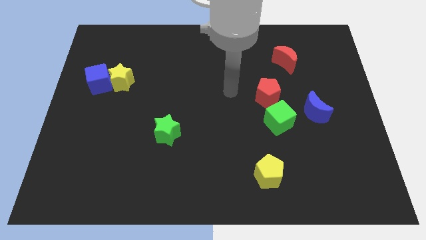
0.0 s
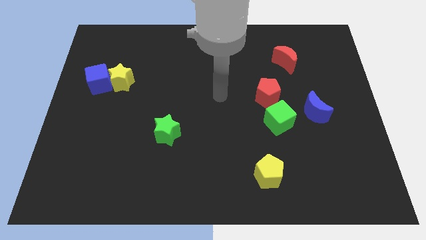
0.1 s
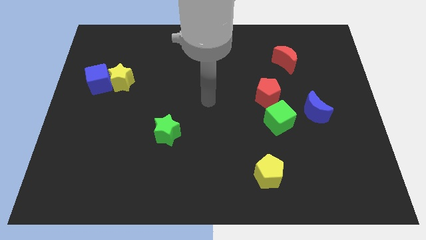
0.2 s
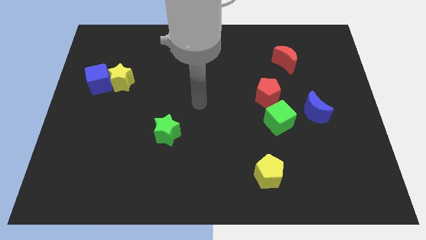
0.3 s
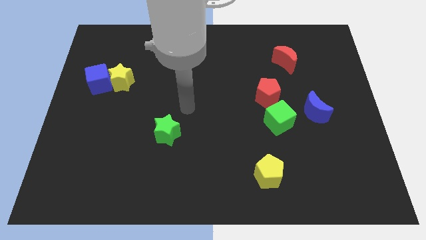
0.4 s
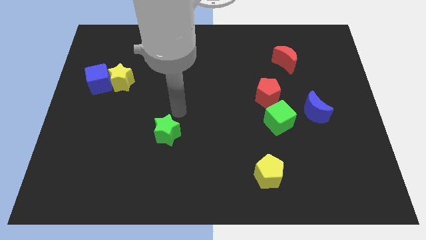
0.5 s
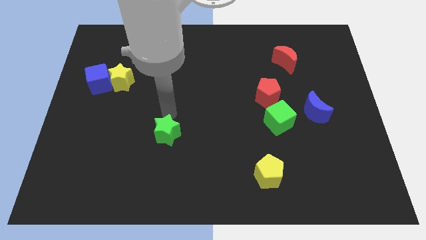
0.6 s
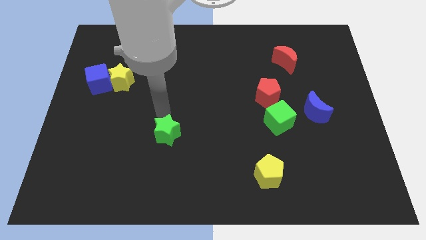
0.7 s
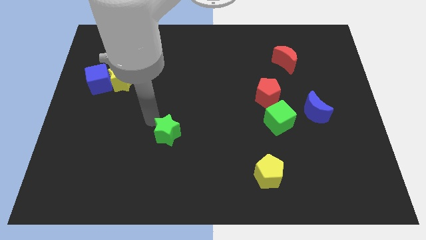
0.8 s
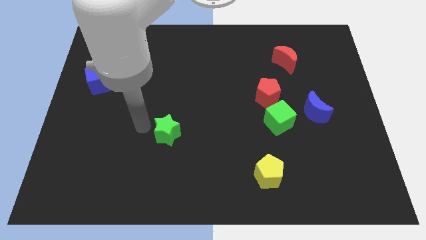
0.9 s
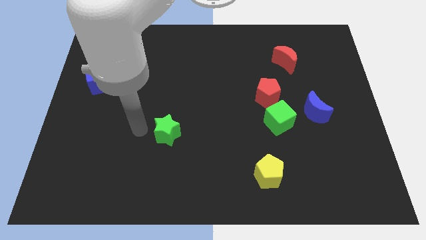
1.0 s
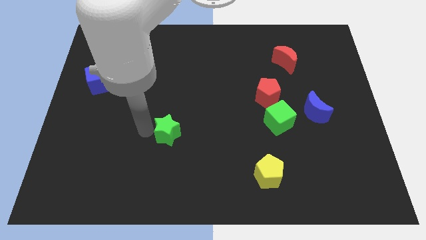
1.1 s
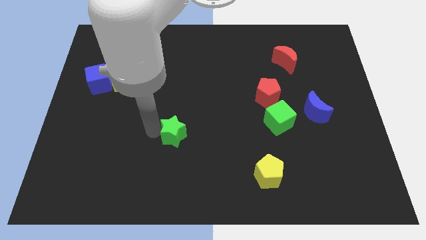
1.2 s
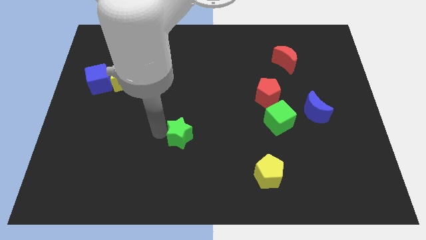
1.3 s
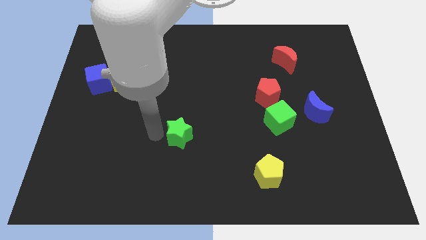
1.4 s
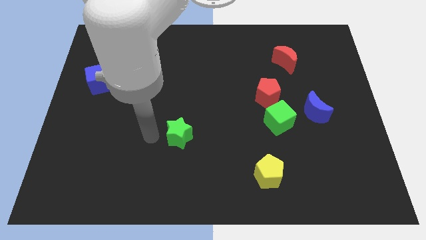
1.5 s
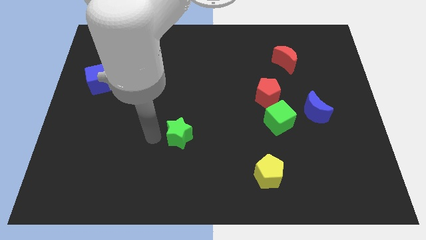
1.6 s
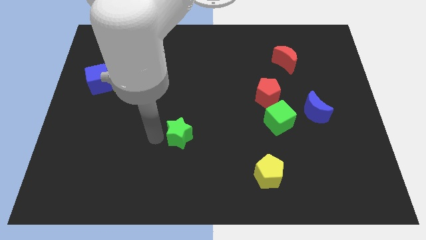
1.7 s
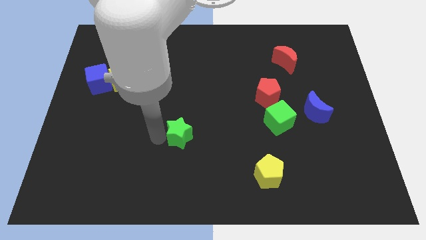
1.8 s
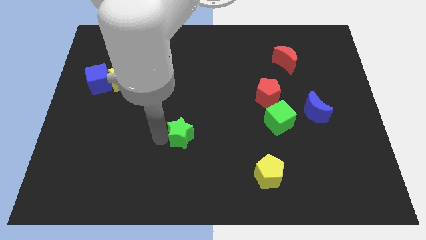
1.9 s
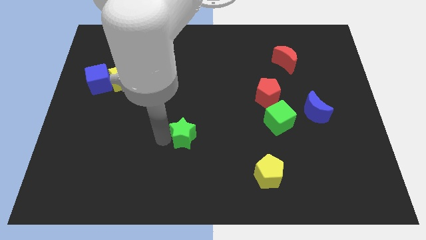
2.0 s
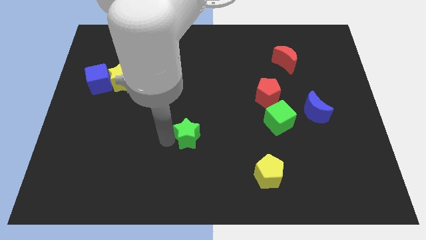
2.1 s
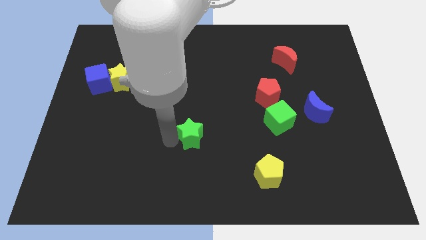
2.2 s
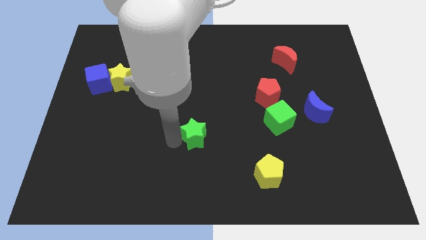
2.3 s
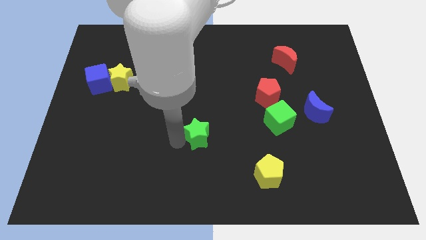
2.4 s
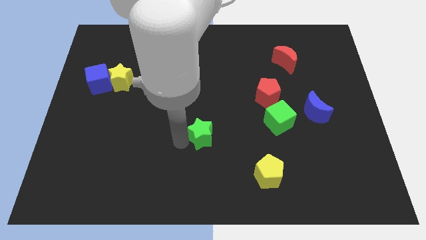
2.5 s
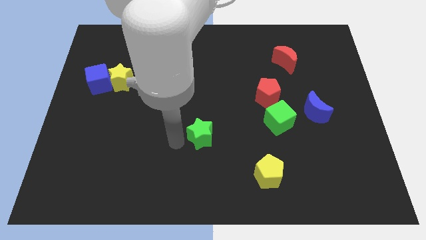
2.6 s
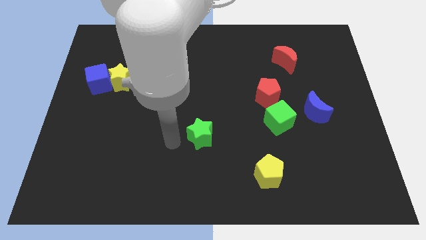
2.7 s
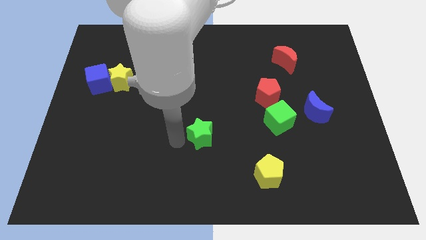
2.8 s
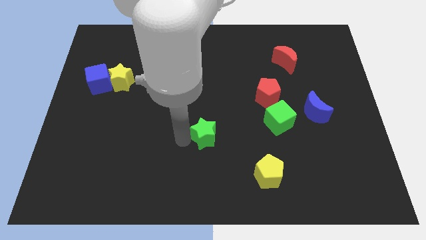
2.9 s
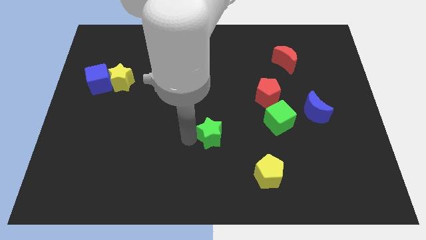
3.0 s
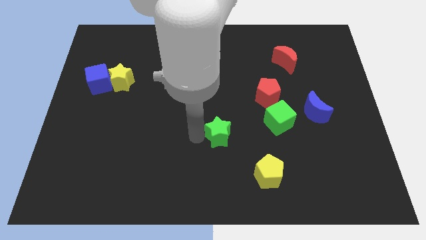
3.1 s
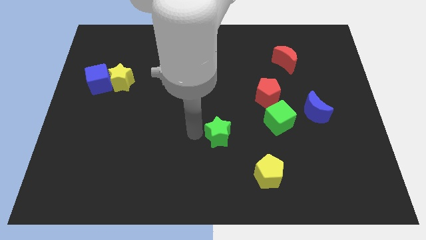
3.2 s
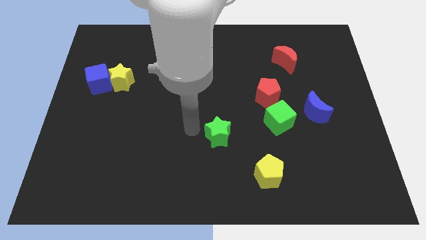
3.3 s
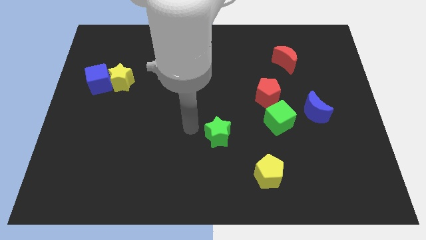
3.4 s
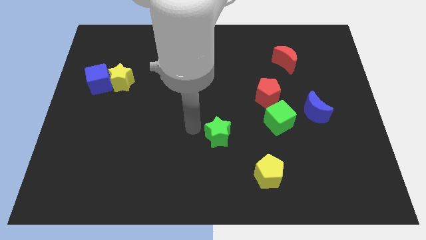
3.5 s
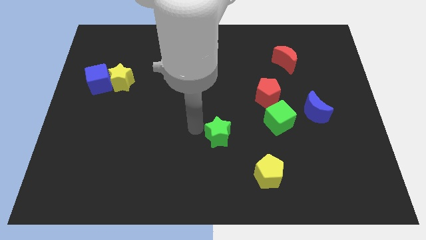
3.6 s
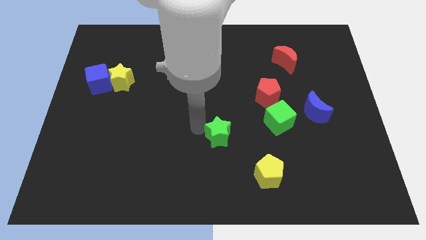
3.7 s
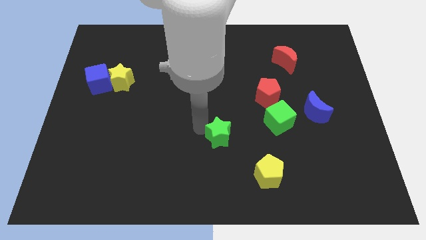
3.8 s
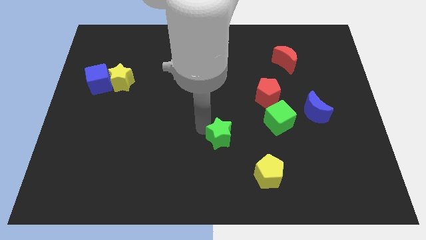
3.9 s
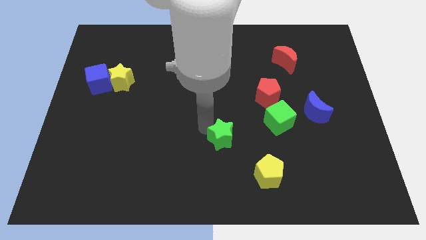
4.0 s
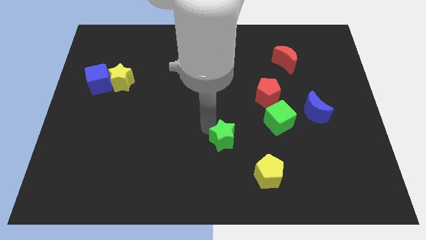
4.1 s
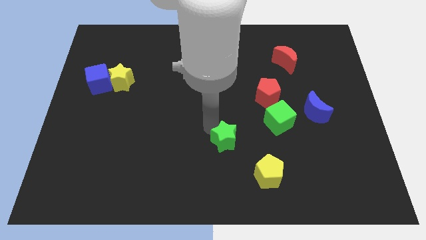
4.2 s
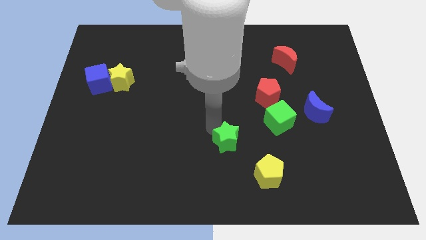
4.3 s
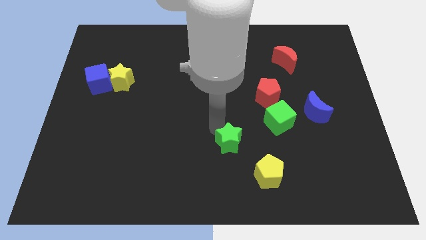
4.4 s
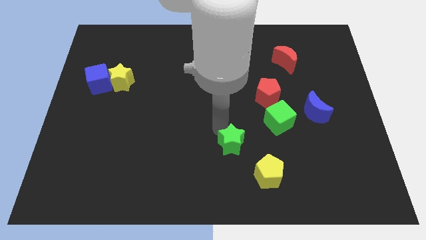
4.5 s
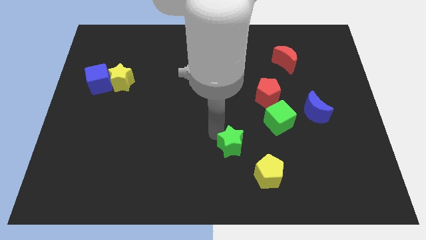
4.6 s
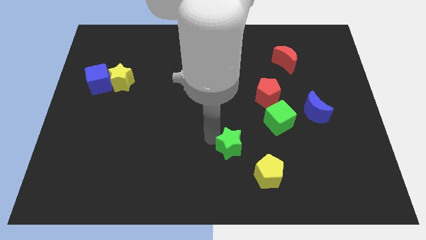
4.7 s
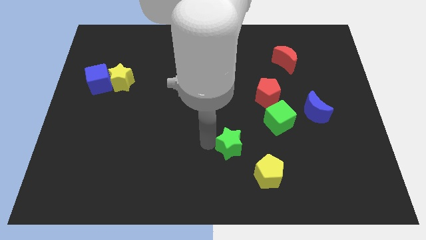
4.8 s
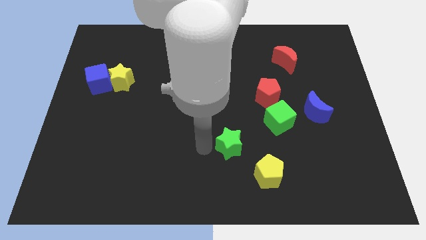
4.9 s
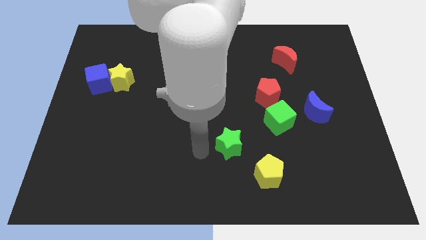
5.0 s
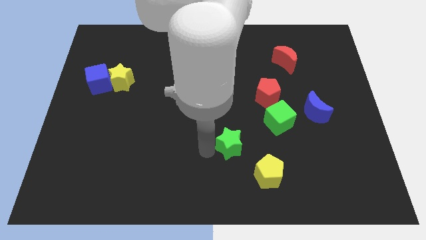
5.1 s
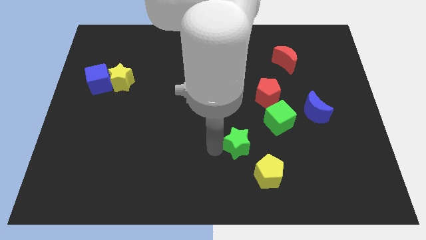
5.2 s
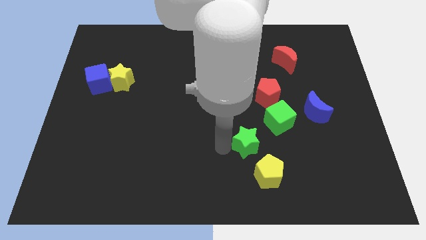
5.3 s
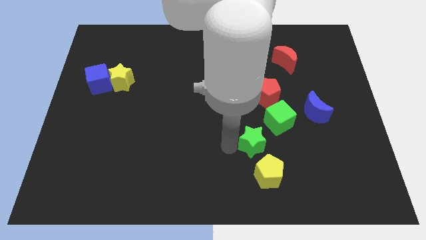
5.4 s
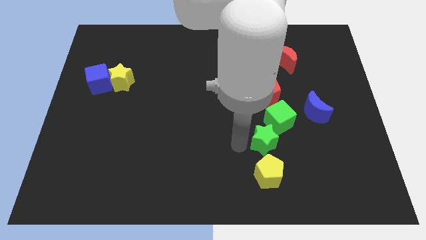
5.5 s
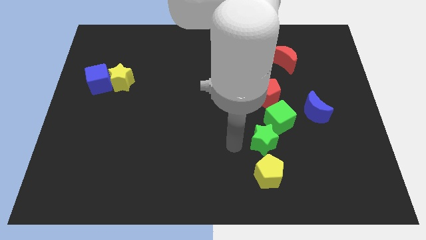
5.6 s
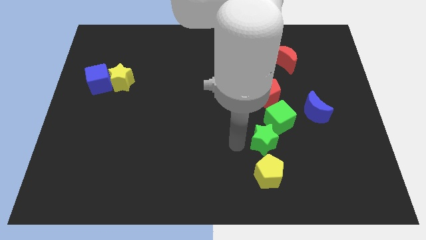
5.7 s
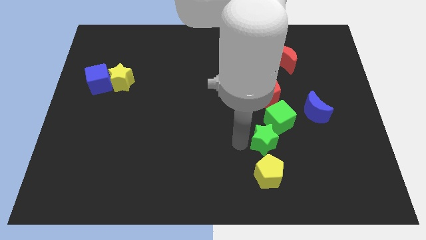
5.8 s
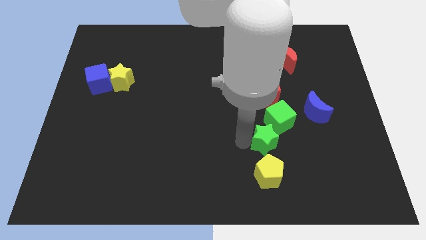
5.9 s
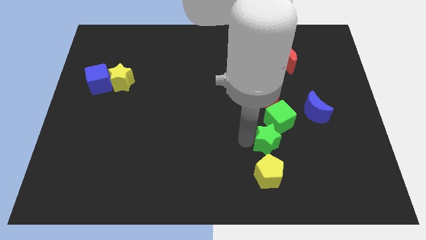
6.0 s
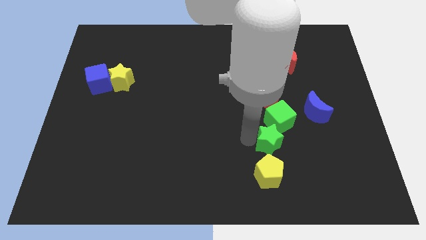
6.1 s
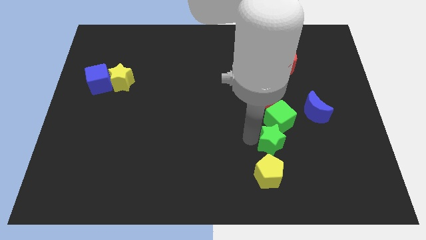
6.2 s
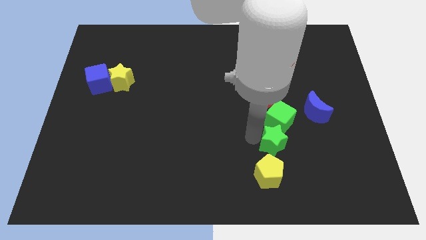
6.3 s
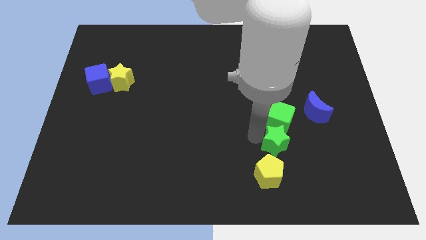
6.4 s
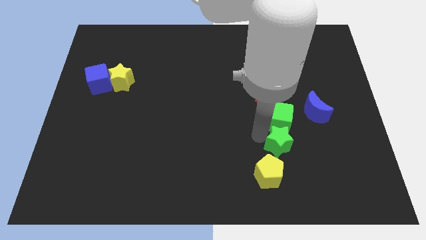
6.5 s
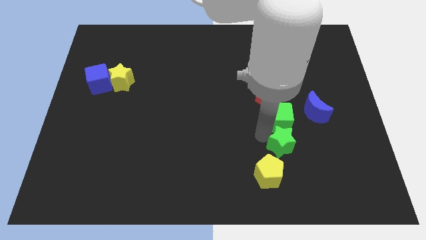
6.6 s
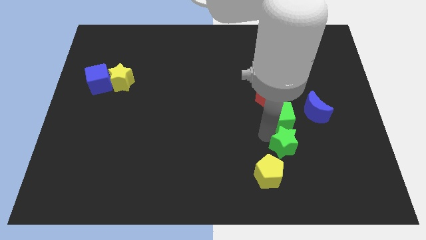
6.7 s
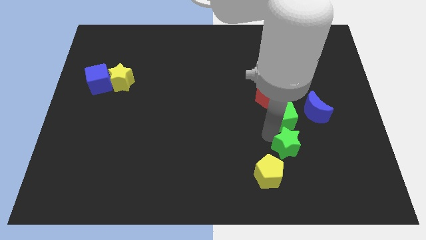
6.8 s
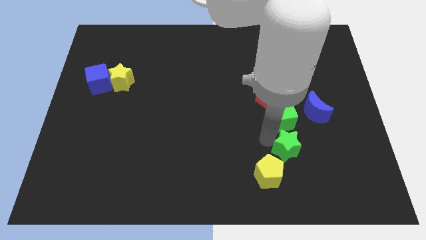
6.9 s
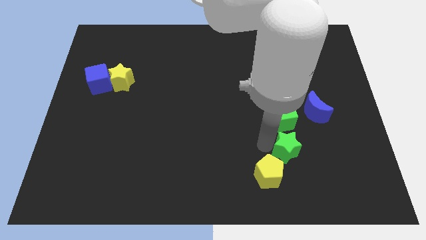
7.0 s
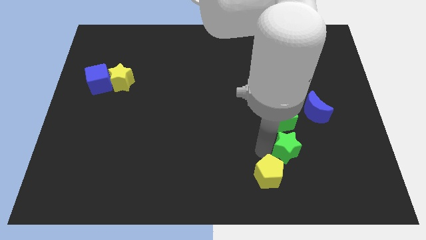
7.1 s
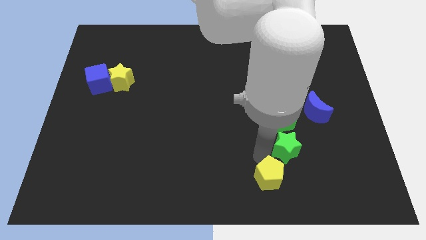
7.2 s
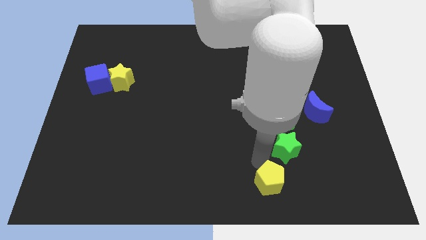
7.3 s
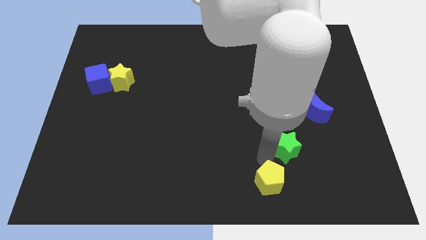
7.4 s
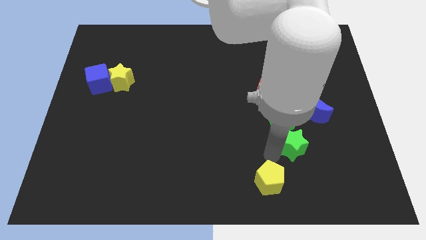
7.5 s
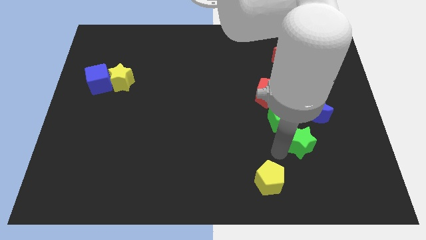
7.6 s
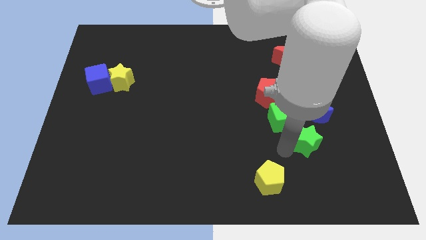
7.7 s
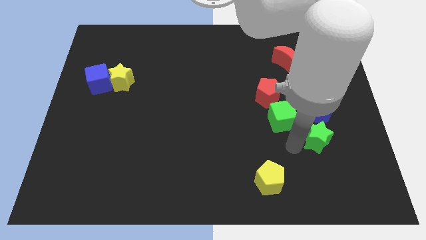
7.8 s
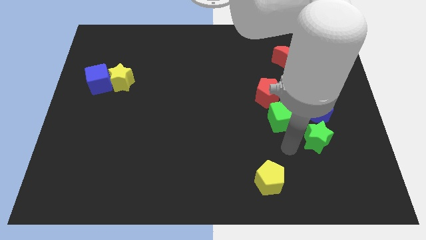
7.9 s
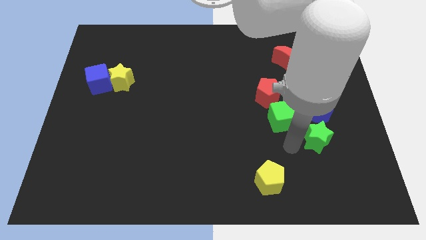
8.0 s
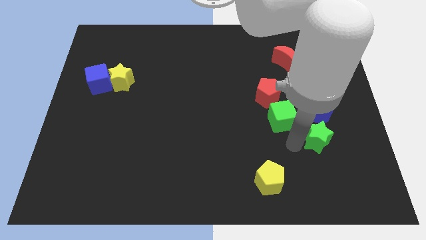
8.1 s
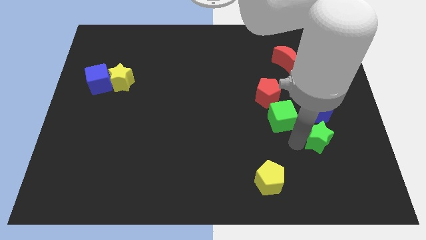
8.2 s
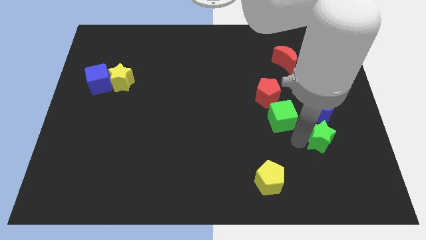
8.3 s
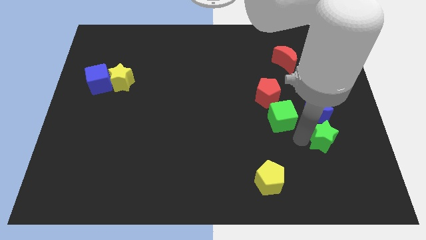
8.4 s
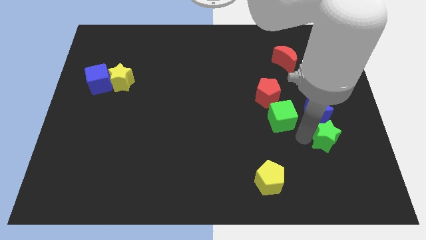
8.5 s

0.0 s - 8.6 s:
move the green star to the bottom right side of the blue moon
